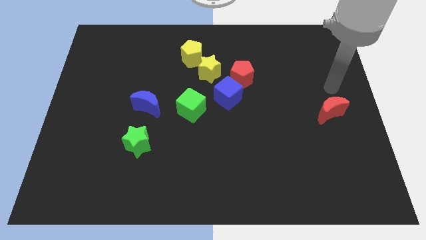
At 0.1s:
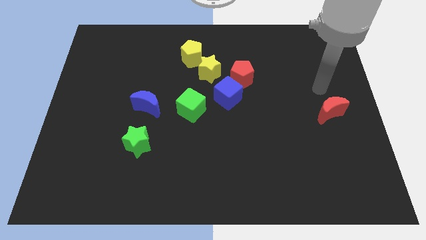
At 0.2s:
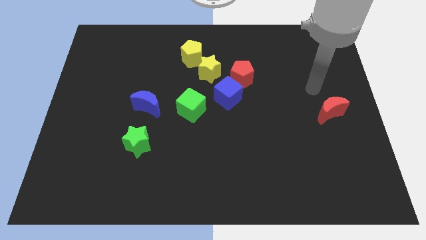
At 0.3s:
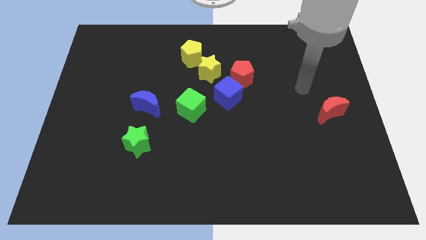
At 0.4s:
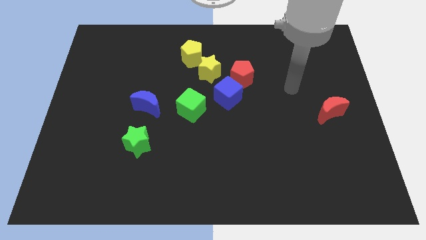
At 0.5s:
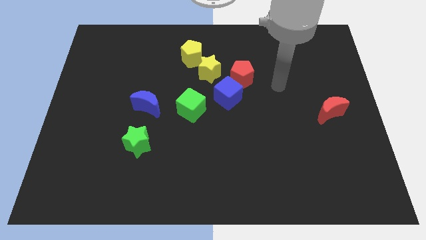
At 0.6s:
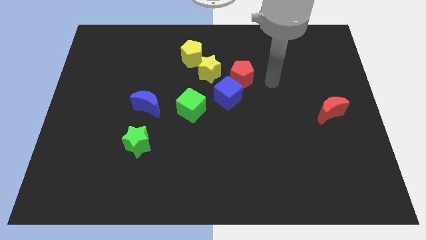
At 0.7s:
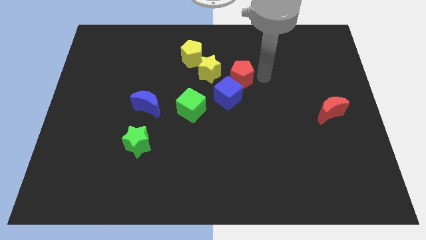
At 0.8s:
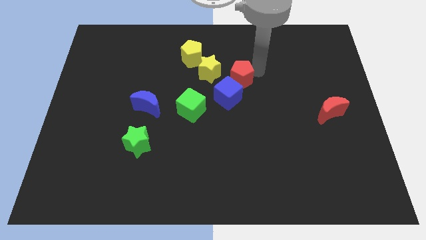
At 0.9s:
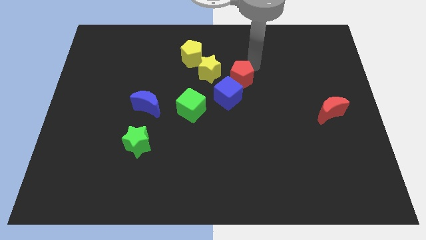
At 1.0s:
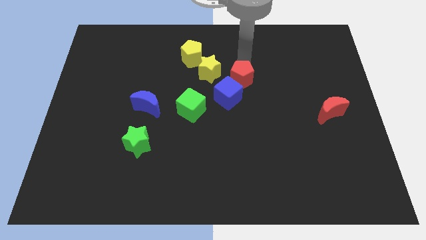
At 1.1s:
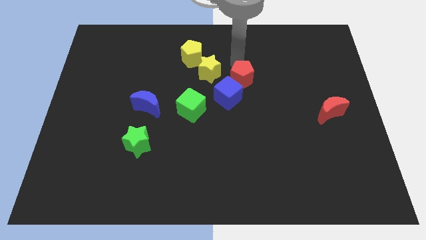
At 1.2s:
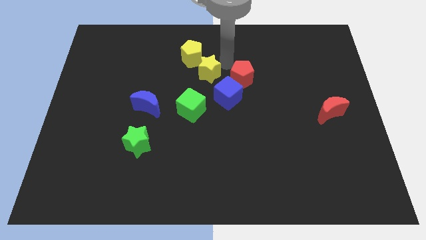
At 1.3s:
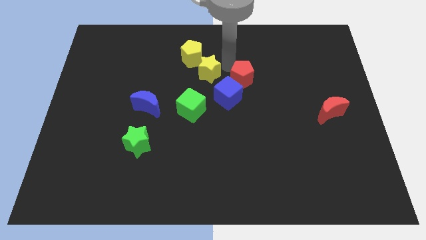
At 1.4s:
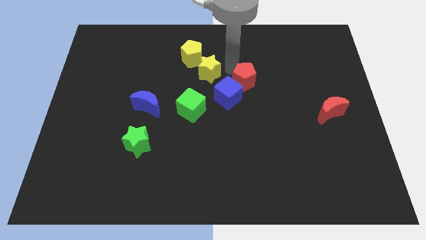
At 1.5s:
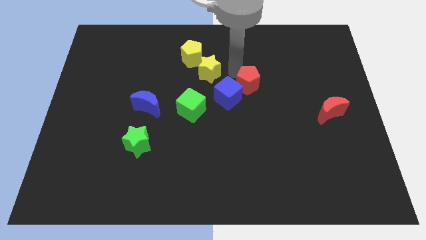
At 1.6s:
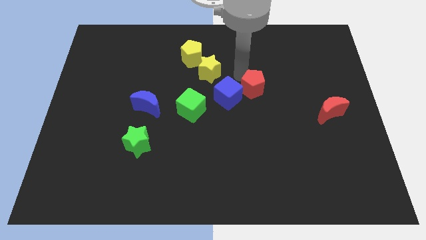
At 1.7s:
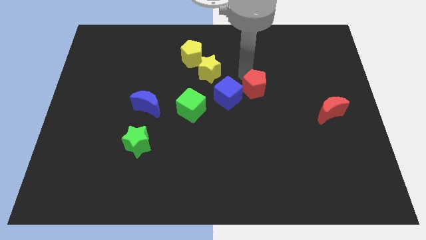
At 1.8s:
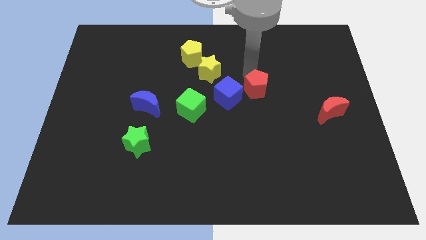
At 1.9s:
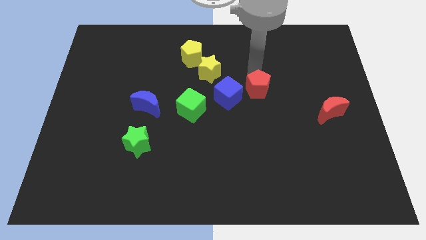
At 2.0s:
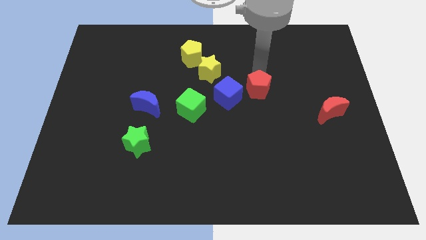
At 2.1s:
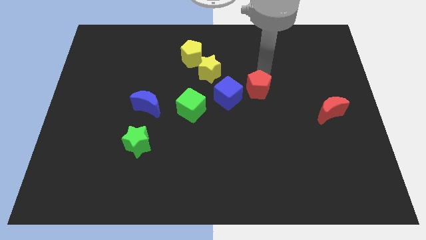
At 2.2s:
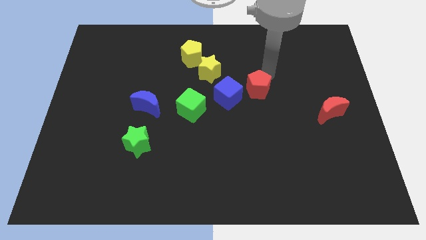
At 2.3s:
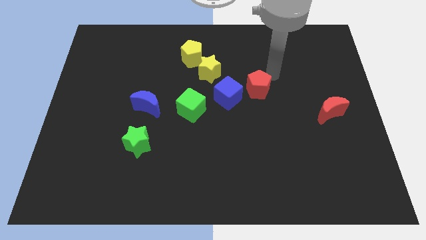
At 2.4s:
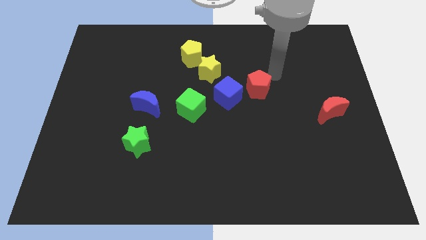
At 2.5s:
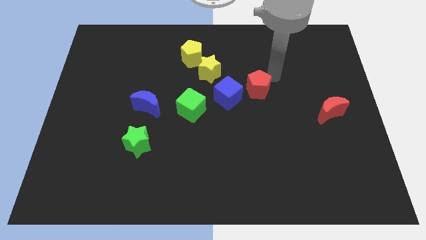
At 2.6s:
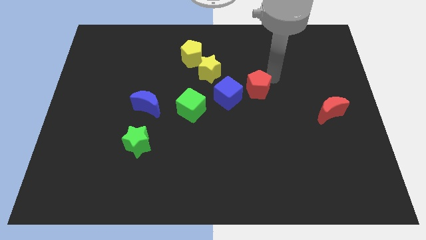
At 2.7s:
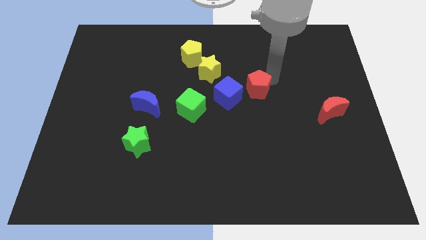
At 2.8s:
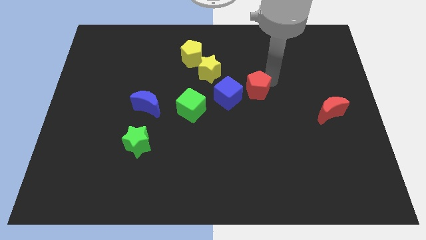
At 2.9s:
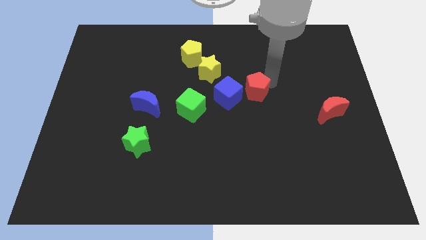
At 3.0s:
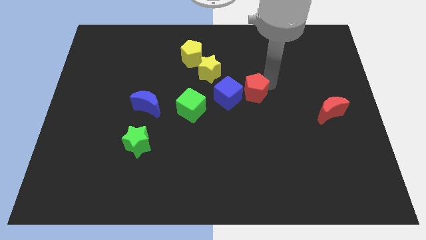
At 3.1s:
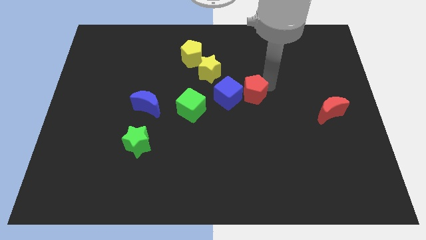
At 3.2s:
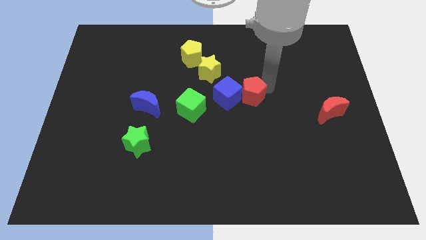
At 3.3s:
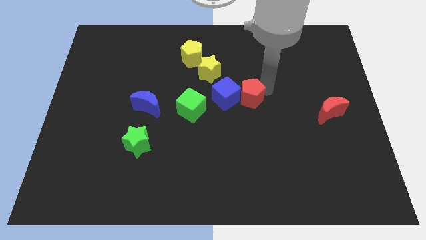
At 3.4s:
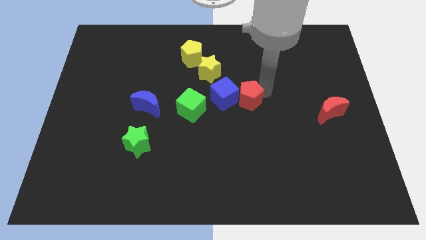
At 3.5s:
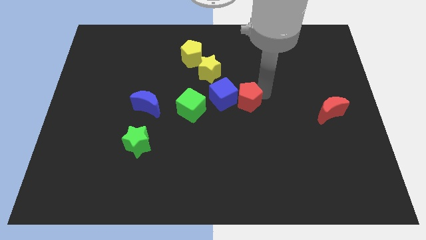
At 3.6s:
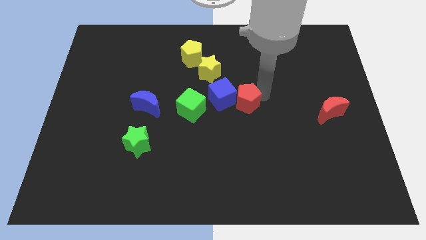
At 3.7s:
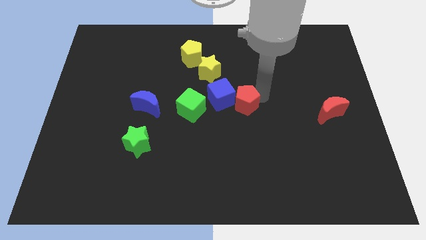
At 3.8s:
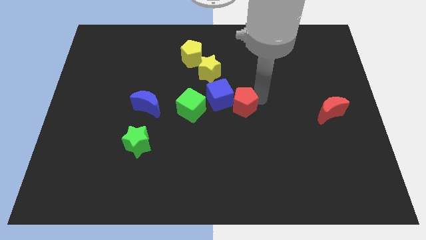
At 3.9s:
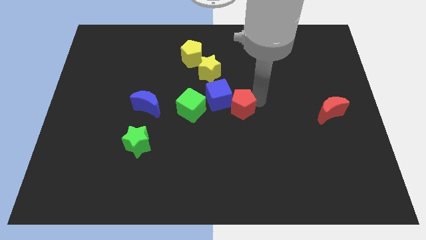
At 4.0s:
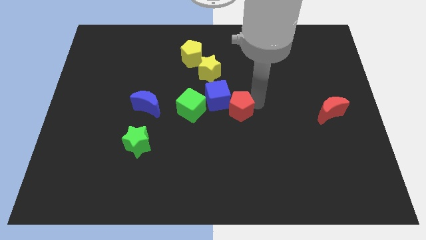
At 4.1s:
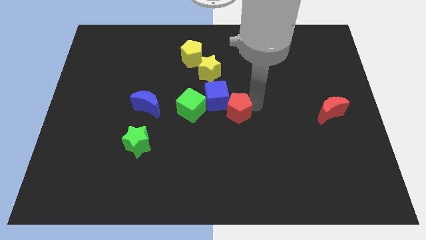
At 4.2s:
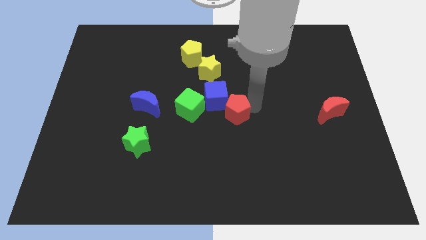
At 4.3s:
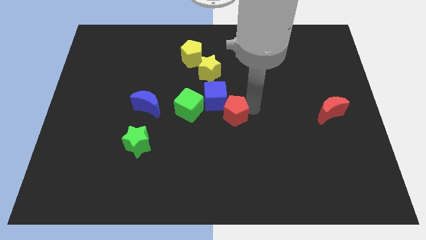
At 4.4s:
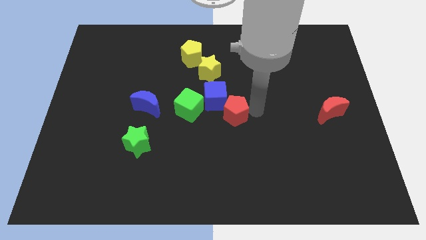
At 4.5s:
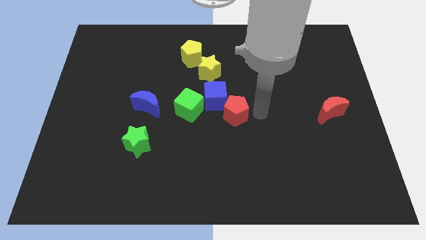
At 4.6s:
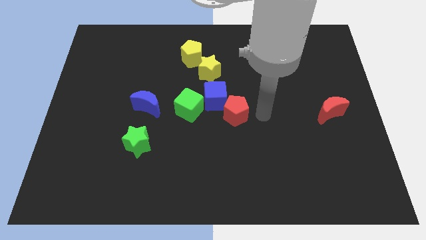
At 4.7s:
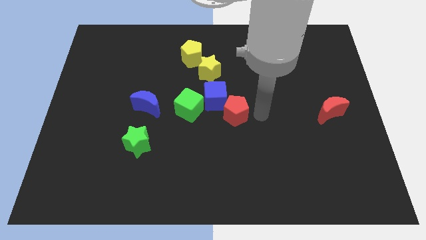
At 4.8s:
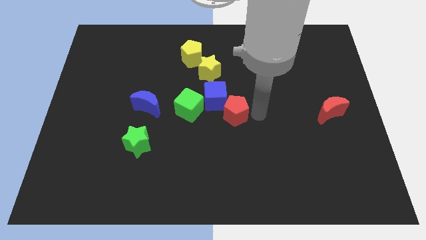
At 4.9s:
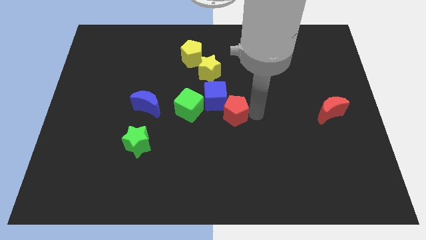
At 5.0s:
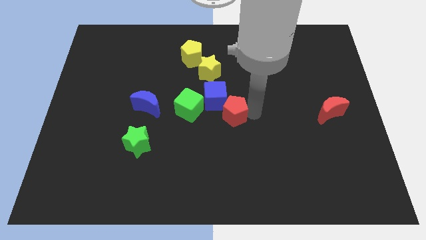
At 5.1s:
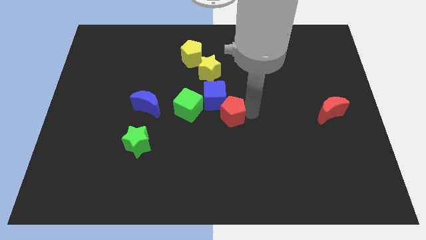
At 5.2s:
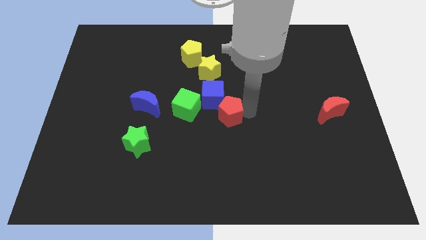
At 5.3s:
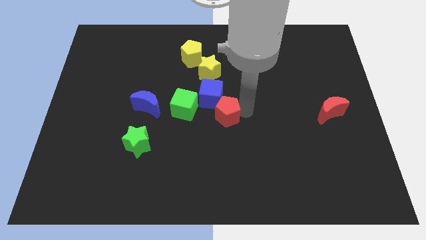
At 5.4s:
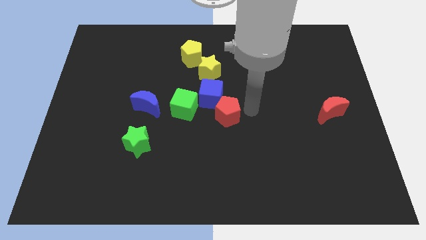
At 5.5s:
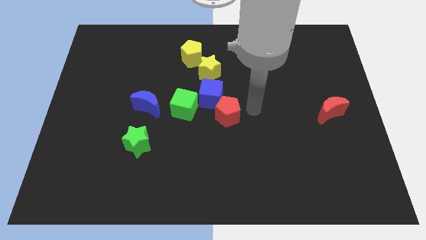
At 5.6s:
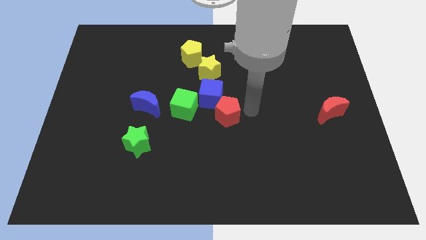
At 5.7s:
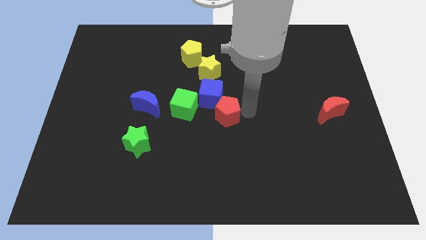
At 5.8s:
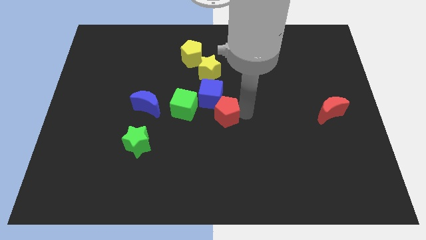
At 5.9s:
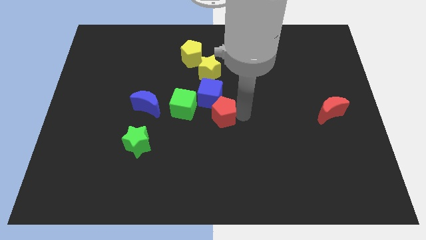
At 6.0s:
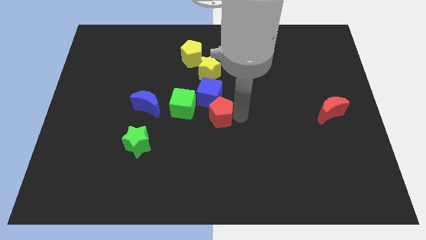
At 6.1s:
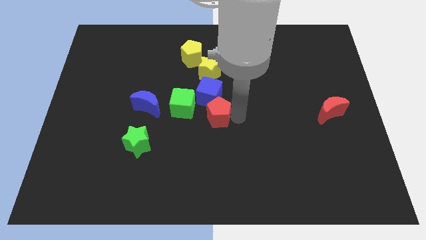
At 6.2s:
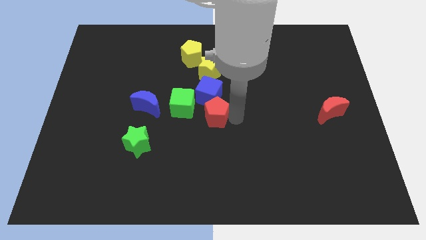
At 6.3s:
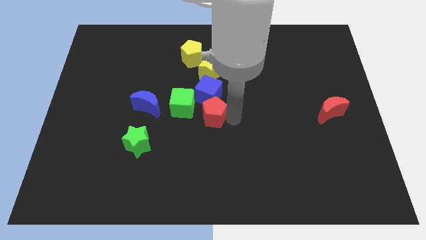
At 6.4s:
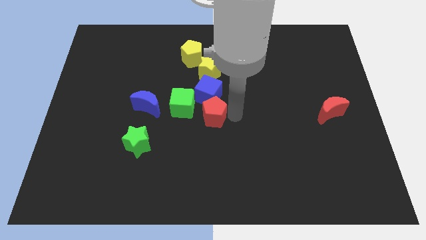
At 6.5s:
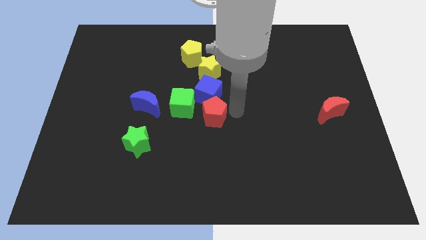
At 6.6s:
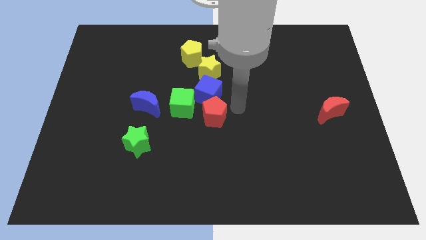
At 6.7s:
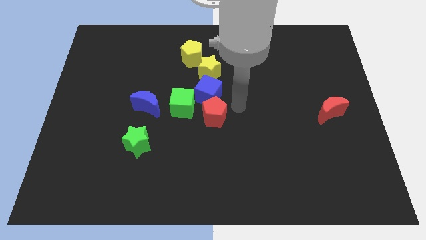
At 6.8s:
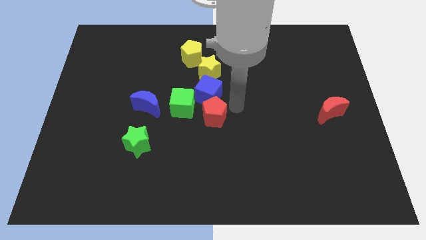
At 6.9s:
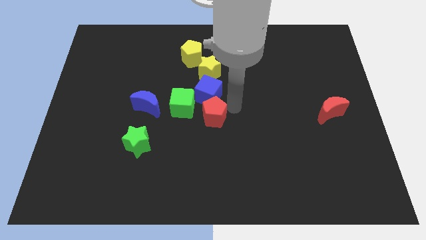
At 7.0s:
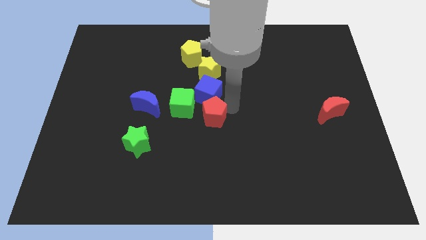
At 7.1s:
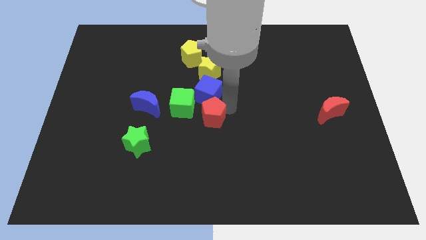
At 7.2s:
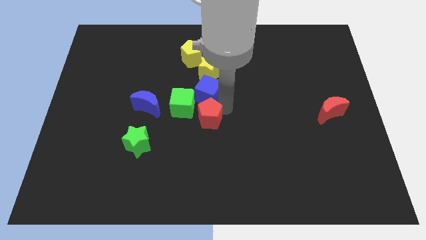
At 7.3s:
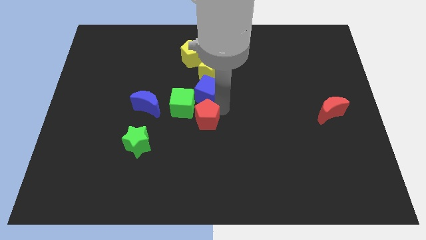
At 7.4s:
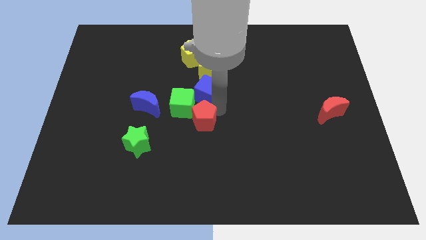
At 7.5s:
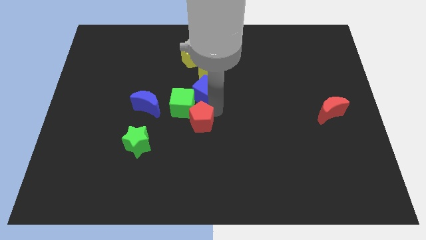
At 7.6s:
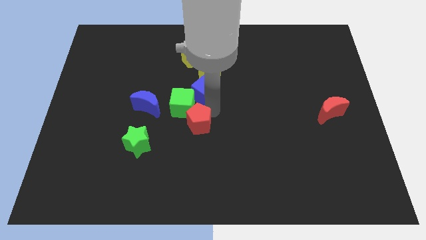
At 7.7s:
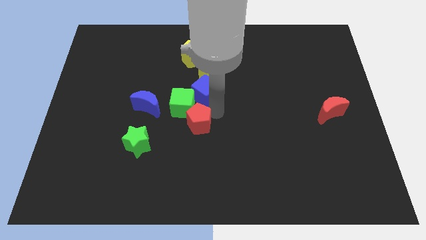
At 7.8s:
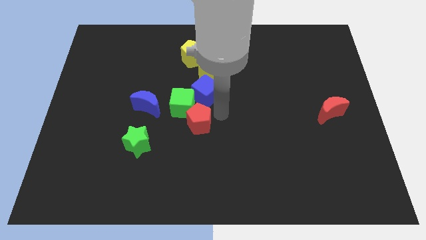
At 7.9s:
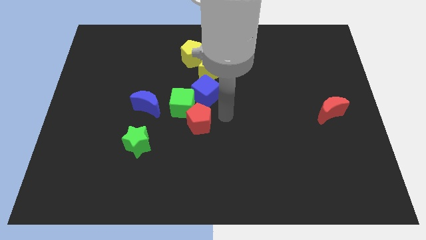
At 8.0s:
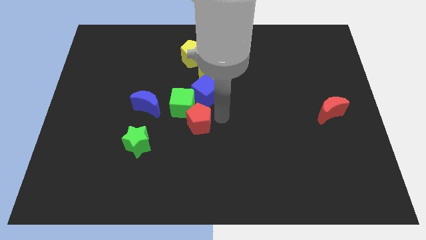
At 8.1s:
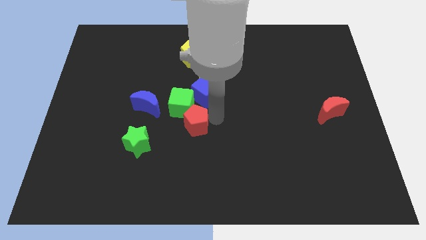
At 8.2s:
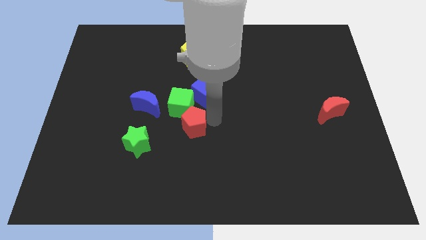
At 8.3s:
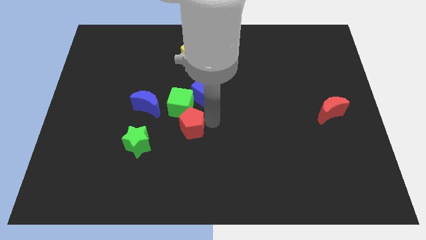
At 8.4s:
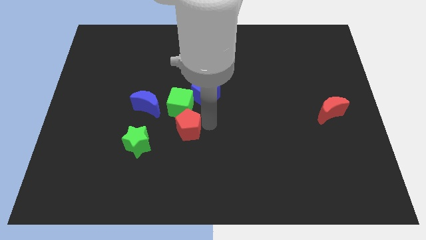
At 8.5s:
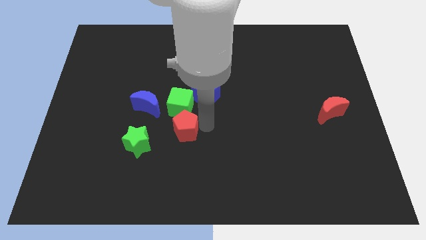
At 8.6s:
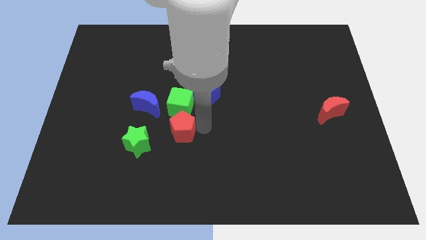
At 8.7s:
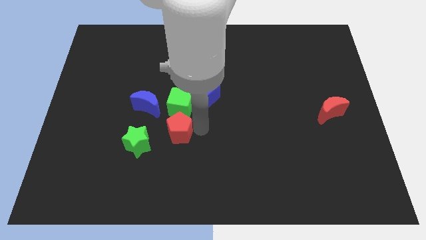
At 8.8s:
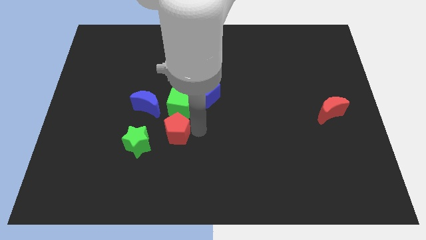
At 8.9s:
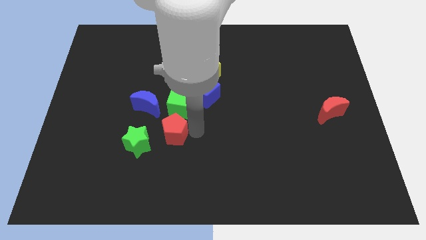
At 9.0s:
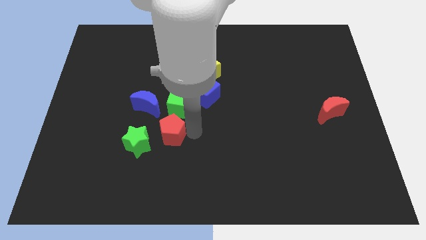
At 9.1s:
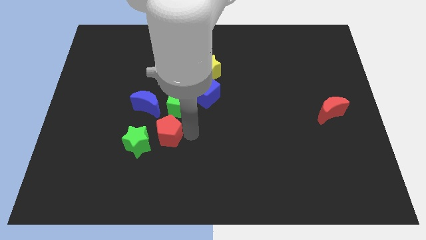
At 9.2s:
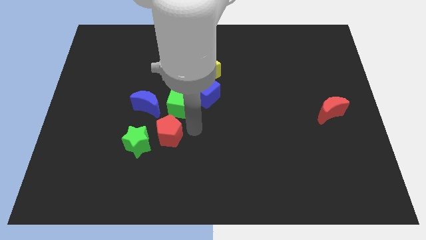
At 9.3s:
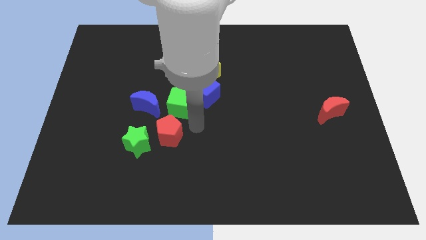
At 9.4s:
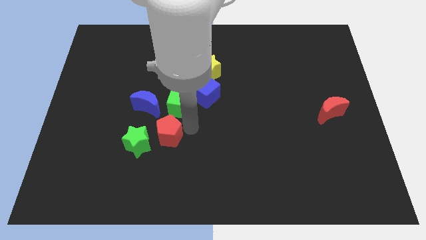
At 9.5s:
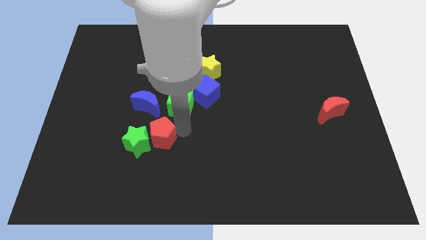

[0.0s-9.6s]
push the red pentagon next to the green star
